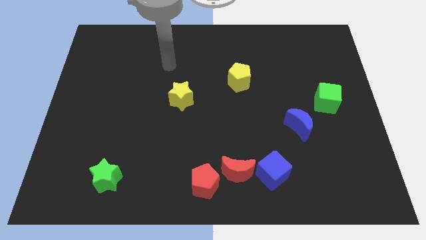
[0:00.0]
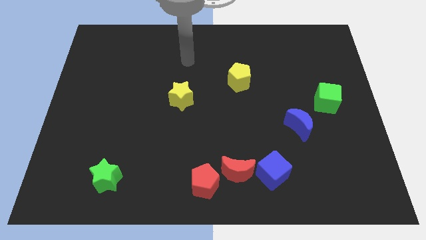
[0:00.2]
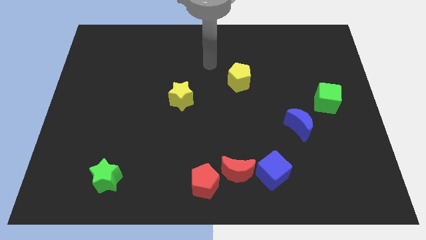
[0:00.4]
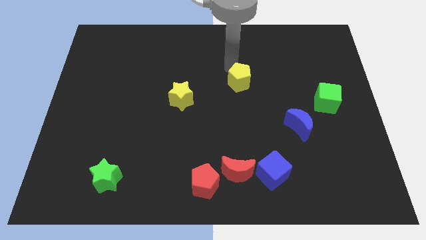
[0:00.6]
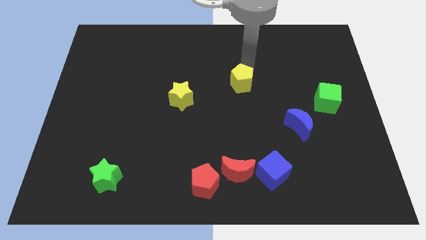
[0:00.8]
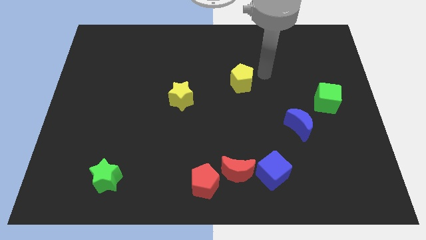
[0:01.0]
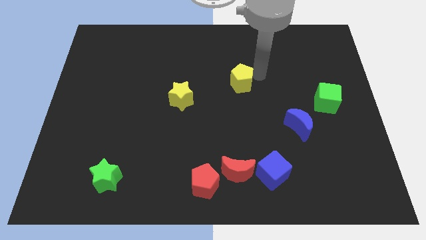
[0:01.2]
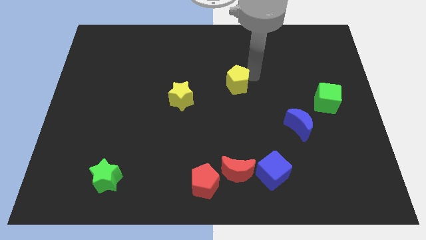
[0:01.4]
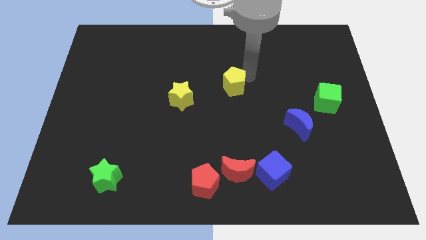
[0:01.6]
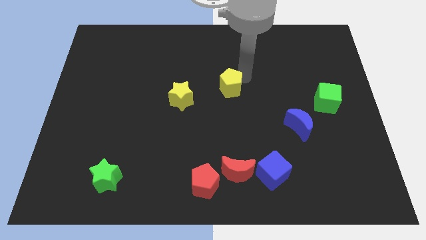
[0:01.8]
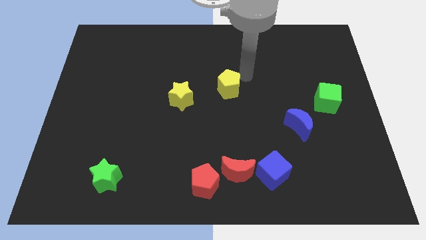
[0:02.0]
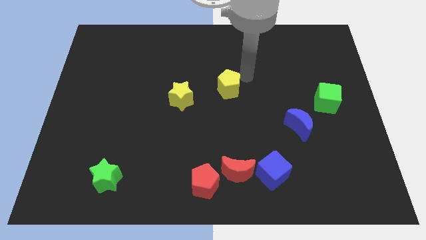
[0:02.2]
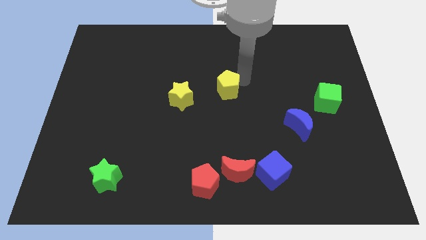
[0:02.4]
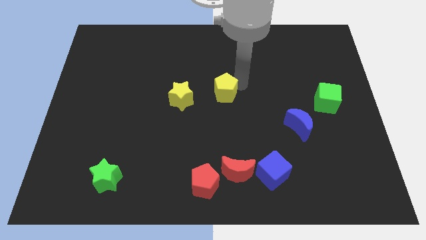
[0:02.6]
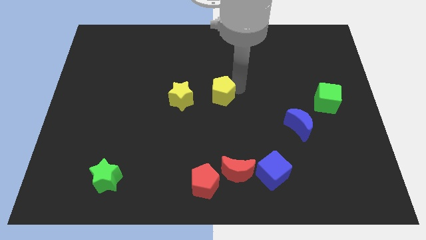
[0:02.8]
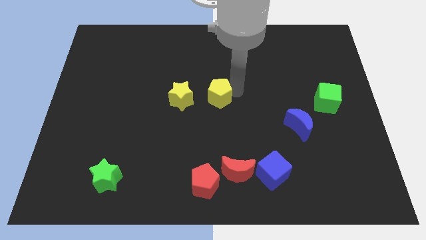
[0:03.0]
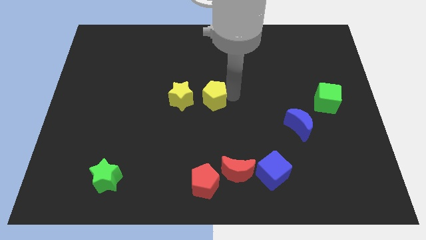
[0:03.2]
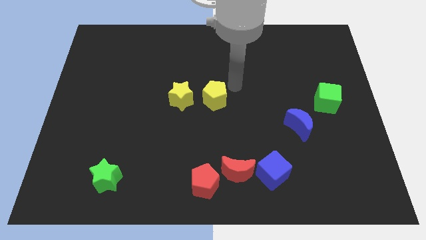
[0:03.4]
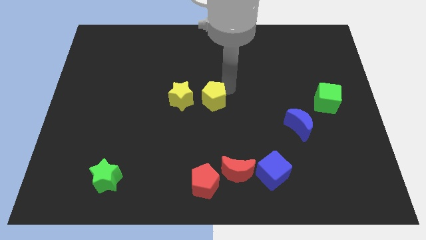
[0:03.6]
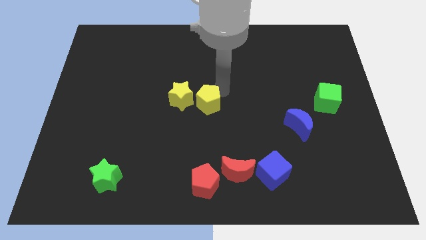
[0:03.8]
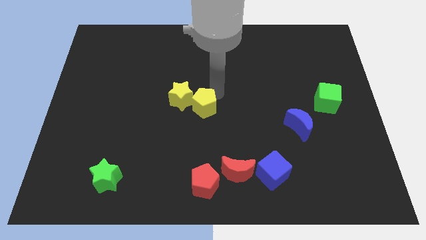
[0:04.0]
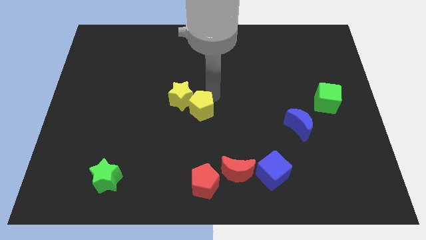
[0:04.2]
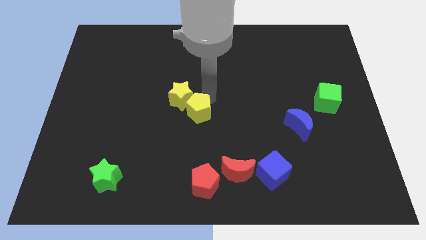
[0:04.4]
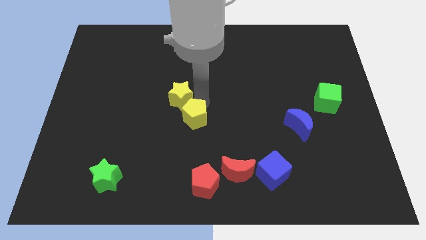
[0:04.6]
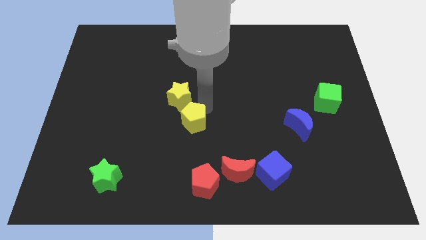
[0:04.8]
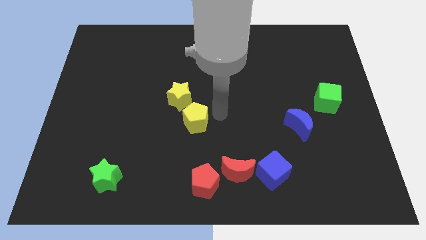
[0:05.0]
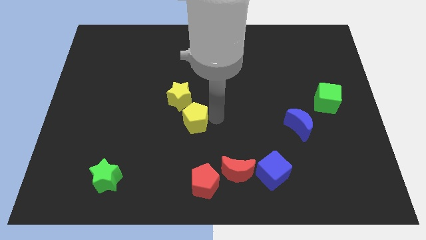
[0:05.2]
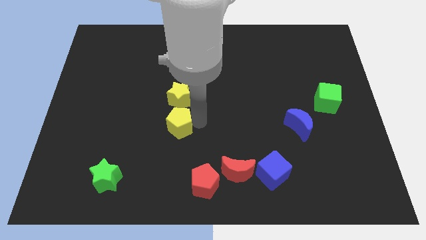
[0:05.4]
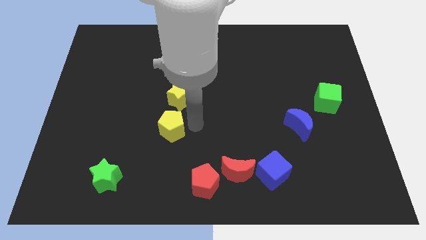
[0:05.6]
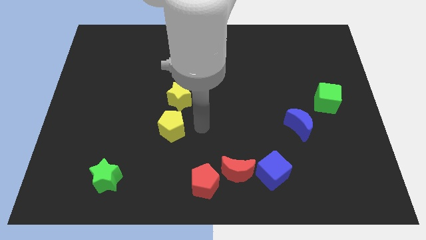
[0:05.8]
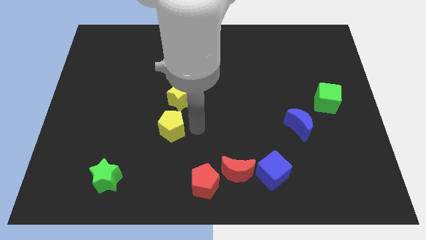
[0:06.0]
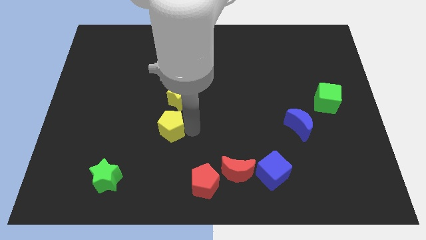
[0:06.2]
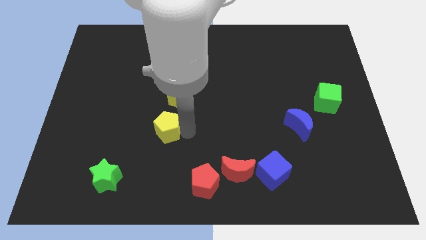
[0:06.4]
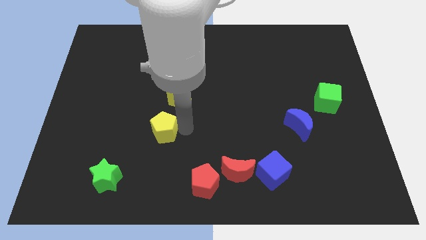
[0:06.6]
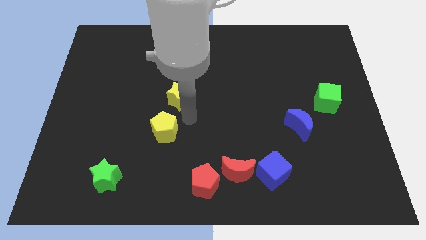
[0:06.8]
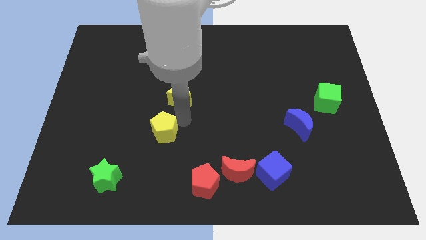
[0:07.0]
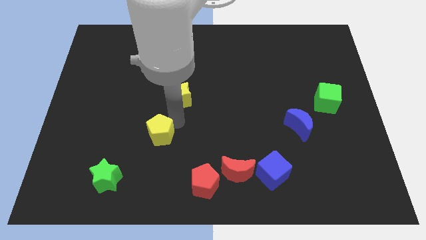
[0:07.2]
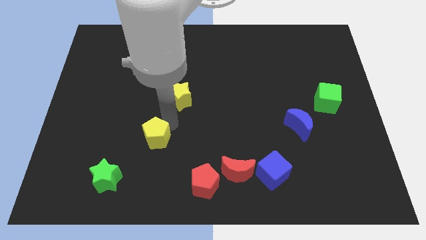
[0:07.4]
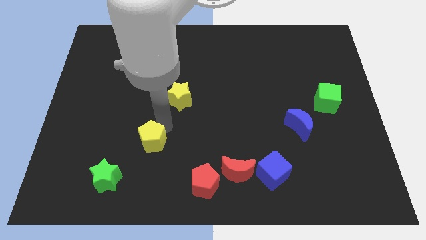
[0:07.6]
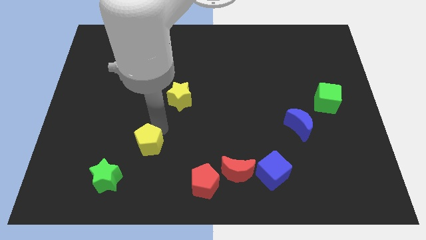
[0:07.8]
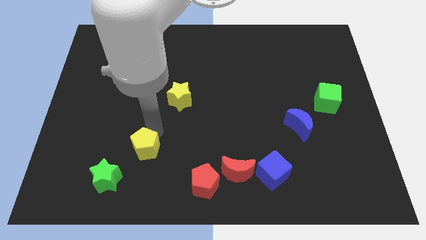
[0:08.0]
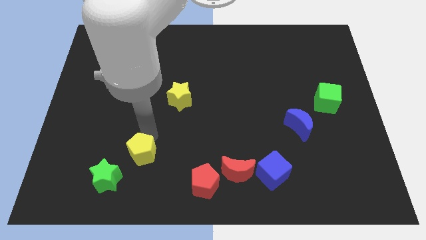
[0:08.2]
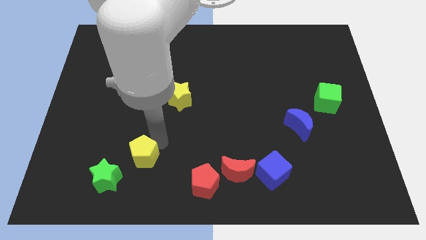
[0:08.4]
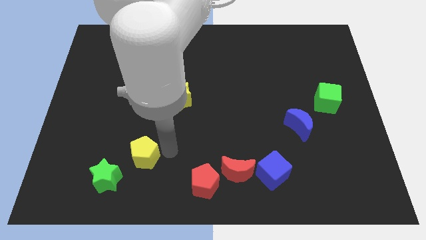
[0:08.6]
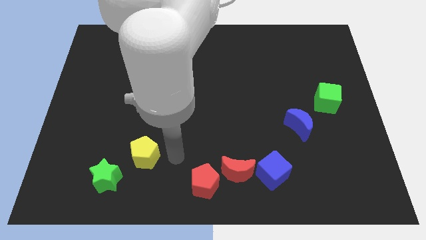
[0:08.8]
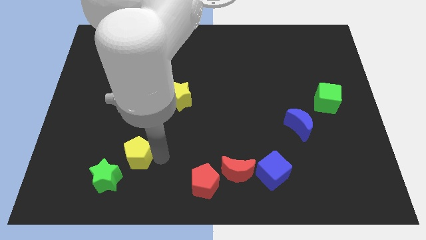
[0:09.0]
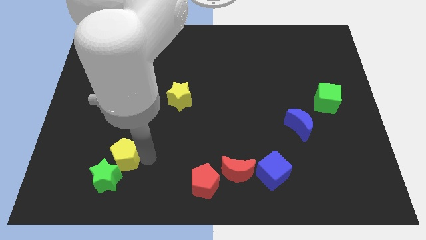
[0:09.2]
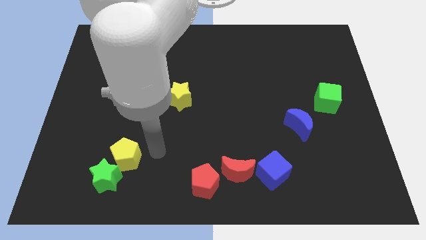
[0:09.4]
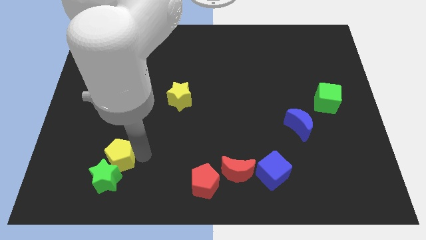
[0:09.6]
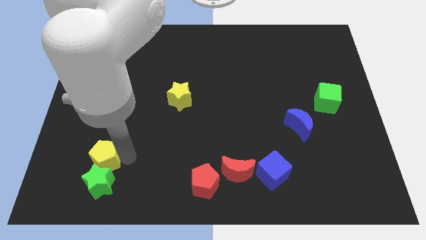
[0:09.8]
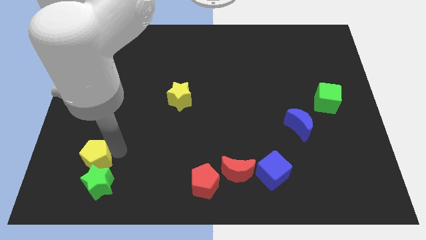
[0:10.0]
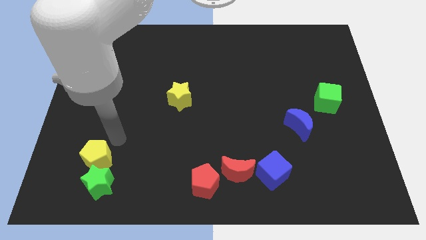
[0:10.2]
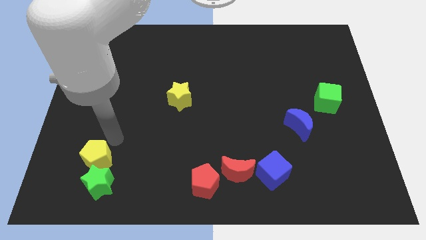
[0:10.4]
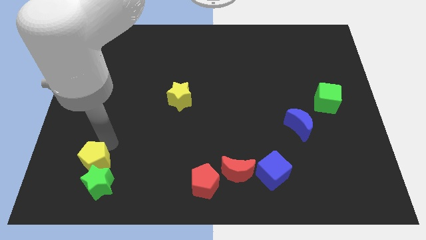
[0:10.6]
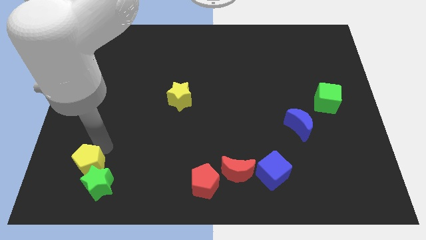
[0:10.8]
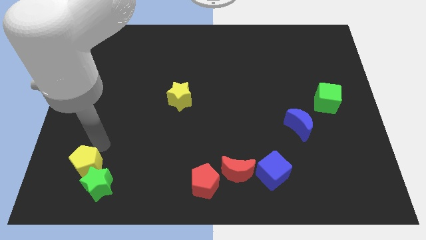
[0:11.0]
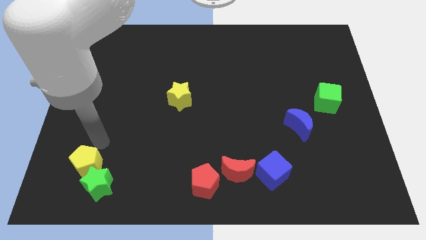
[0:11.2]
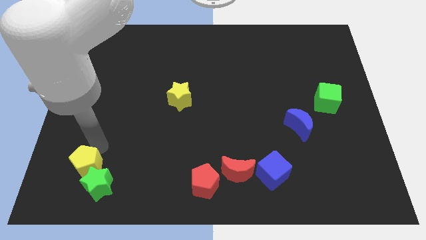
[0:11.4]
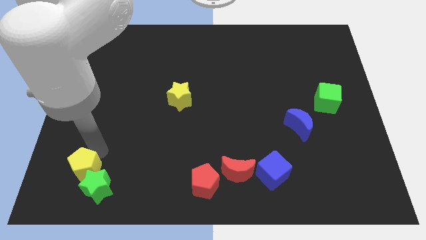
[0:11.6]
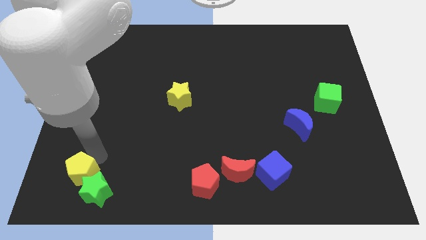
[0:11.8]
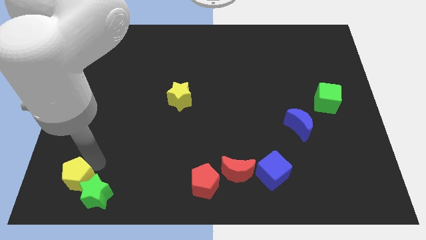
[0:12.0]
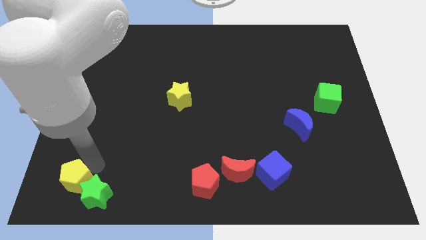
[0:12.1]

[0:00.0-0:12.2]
push the yellow pentagon to the bottom left corner

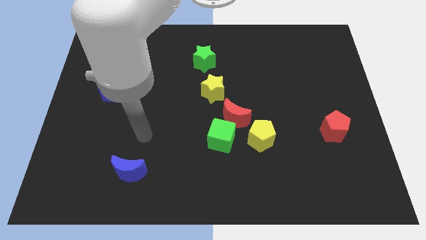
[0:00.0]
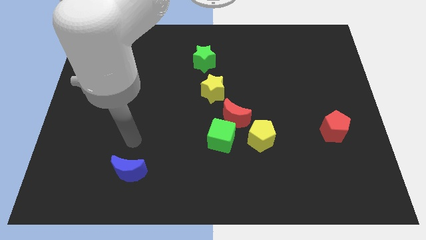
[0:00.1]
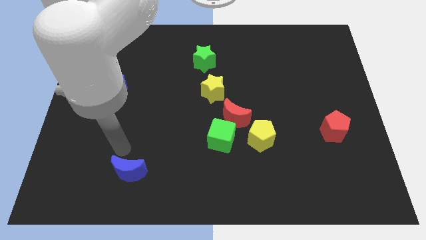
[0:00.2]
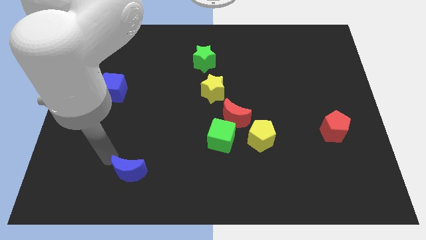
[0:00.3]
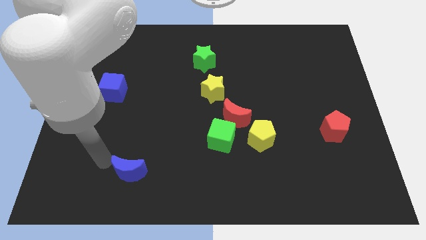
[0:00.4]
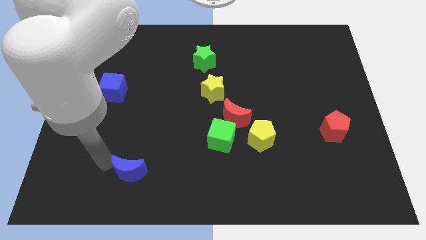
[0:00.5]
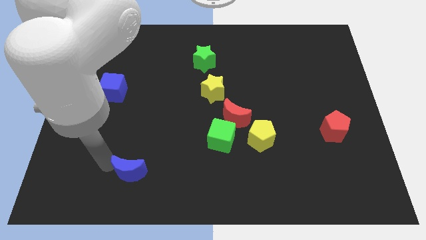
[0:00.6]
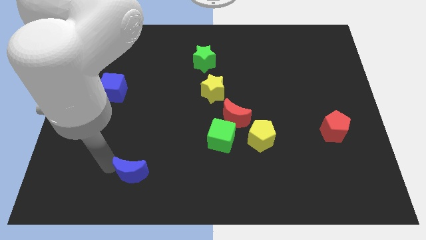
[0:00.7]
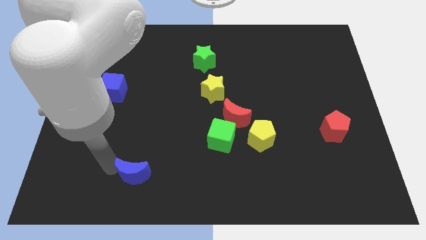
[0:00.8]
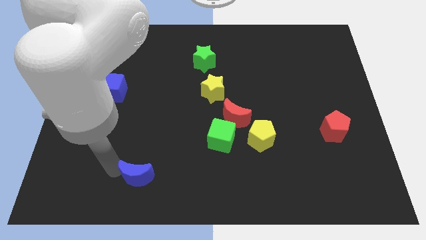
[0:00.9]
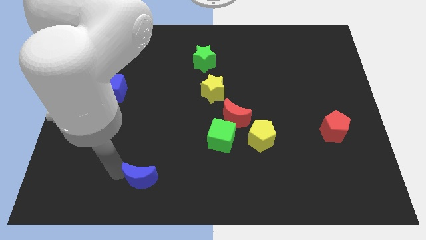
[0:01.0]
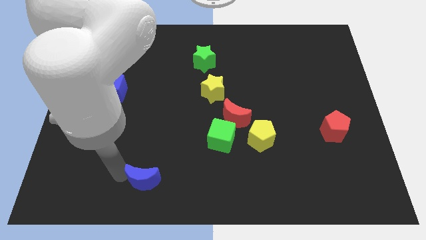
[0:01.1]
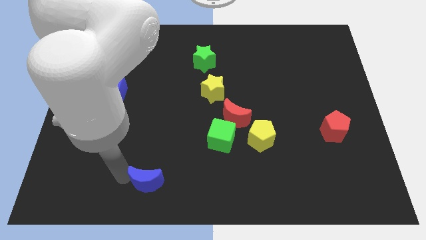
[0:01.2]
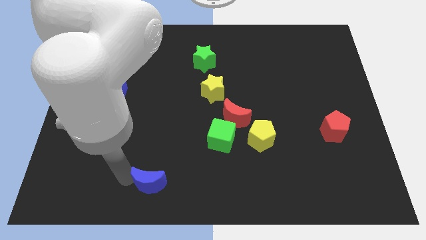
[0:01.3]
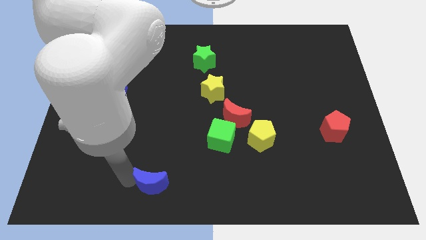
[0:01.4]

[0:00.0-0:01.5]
slide the blue moon to the bottom
